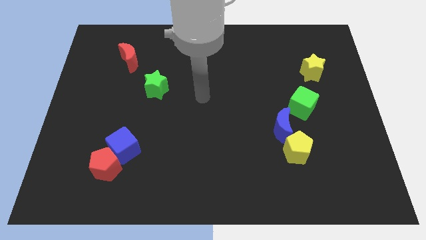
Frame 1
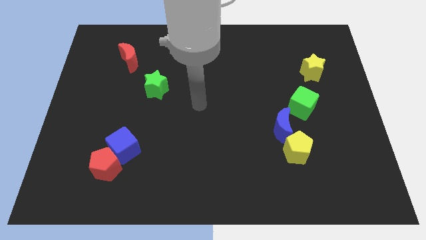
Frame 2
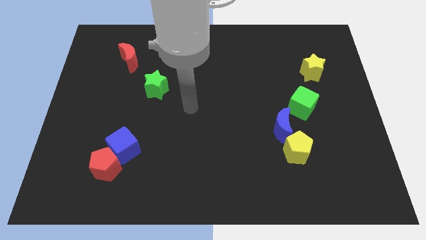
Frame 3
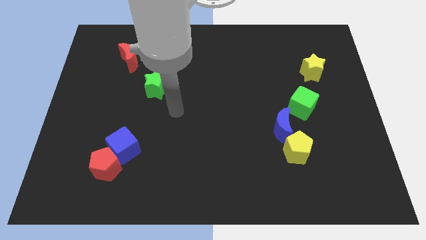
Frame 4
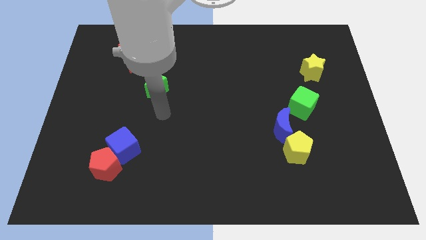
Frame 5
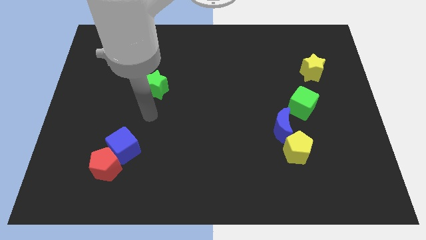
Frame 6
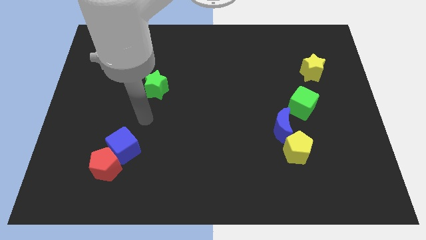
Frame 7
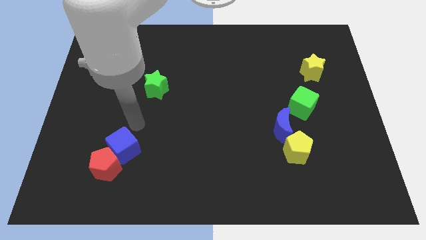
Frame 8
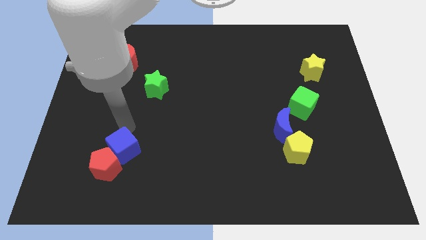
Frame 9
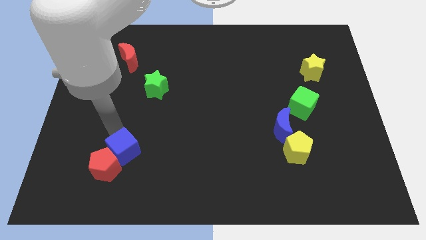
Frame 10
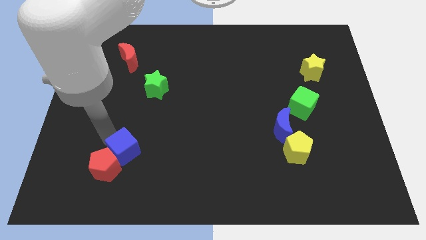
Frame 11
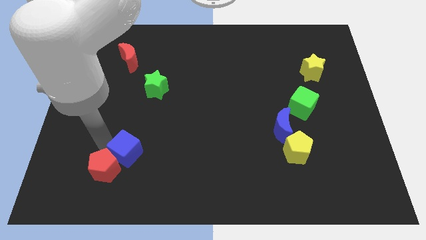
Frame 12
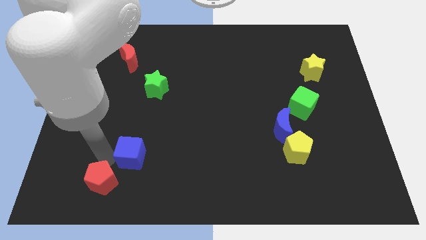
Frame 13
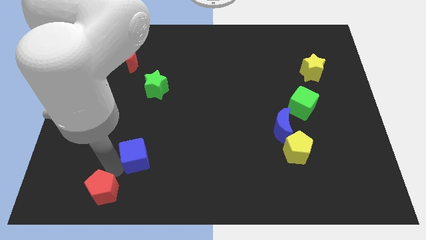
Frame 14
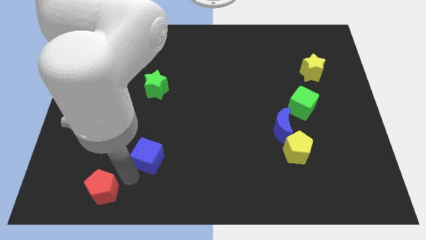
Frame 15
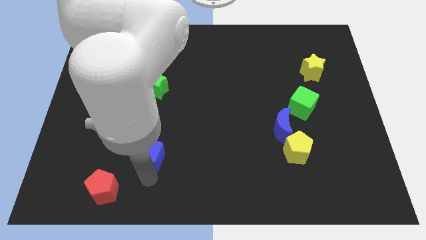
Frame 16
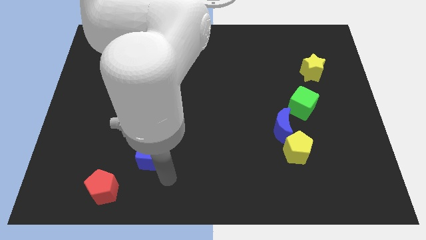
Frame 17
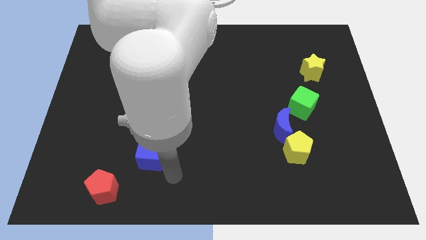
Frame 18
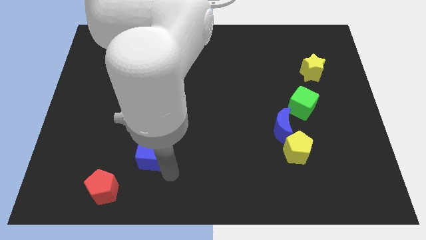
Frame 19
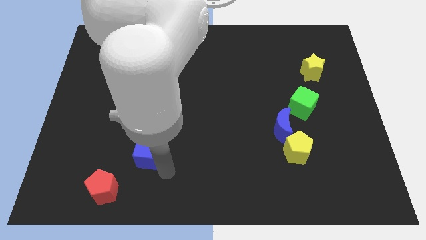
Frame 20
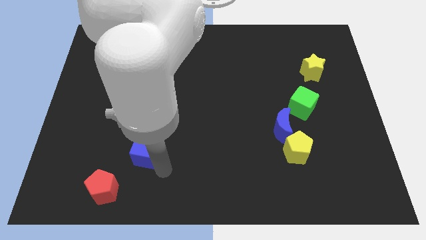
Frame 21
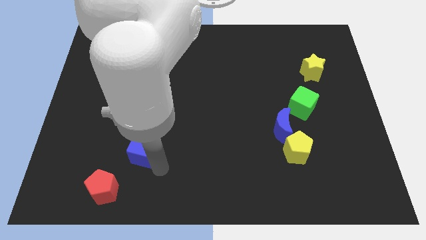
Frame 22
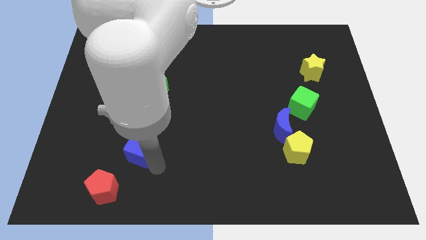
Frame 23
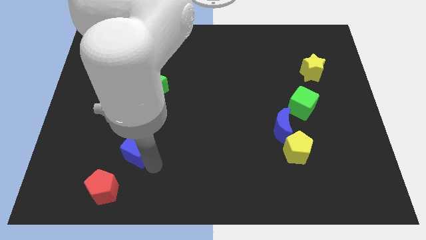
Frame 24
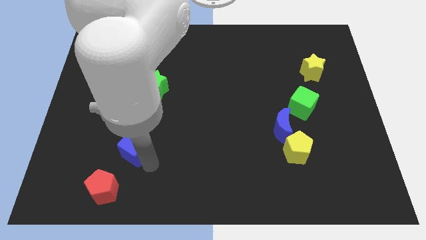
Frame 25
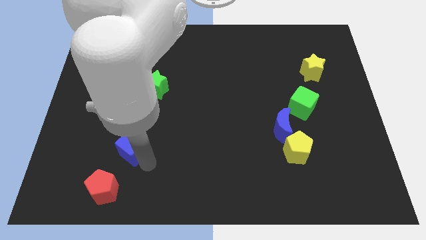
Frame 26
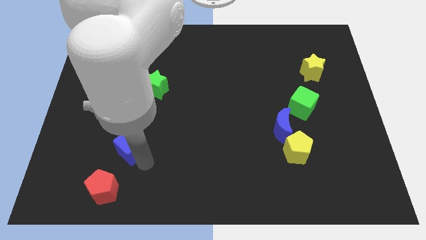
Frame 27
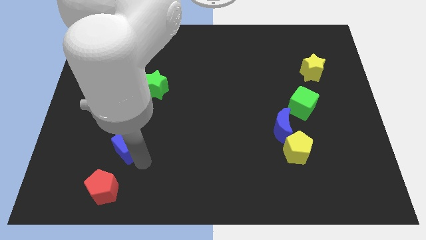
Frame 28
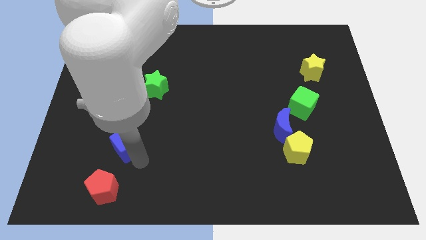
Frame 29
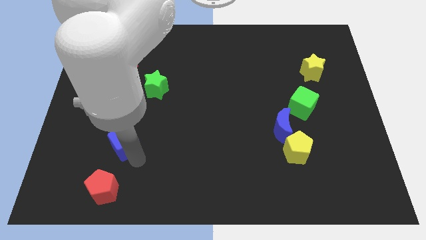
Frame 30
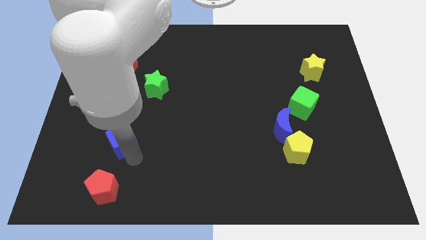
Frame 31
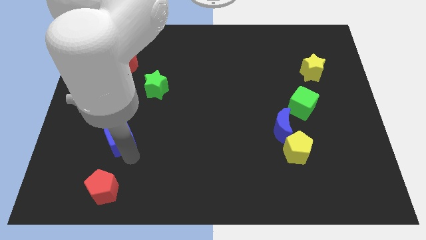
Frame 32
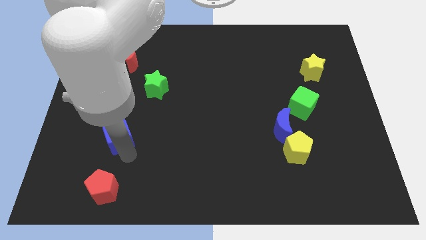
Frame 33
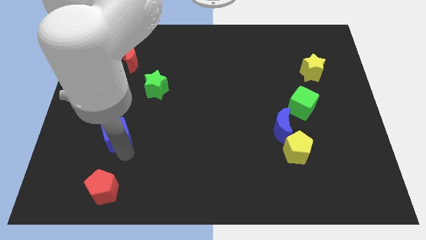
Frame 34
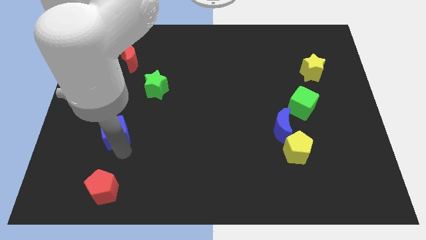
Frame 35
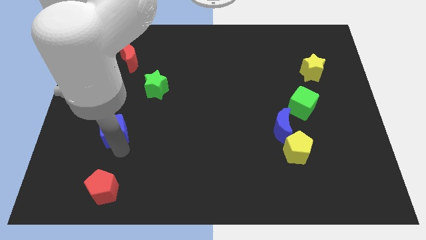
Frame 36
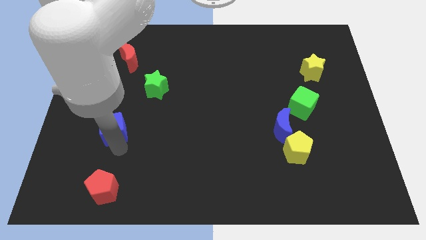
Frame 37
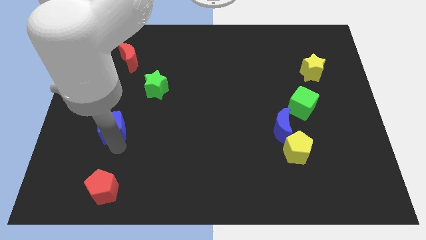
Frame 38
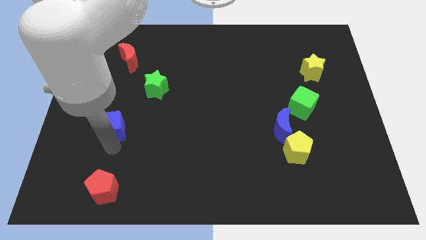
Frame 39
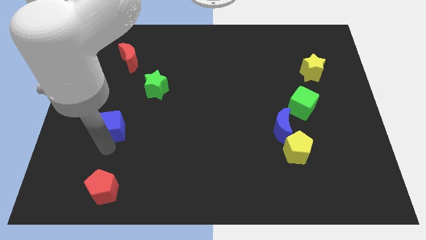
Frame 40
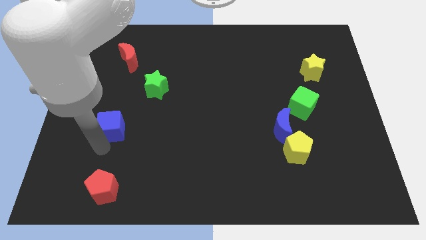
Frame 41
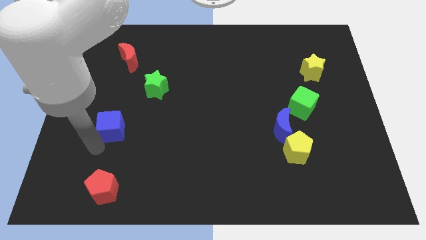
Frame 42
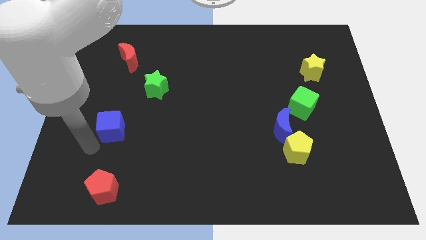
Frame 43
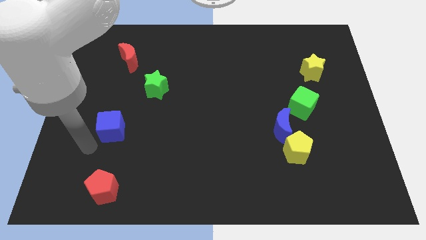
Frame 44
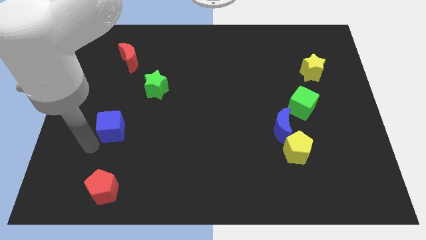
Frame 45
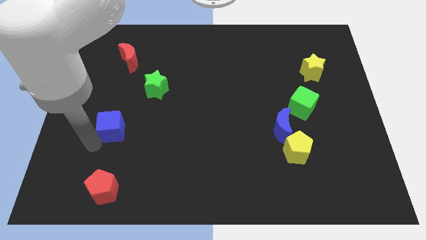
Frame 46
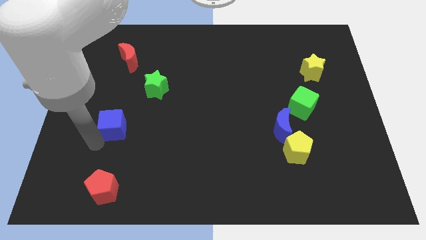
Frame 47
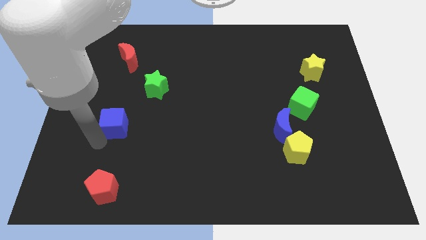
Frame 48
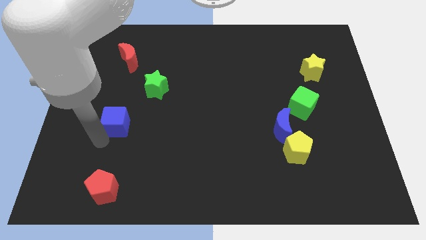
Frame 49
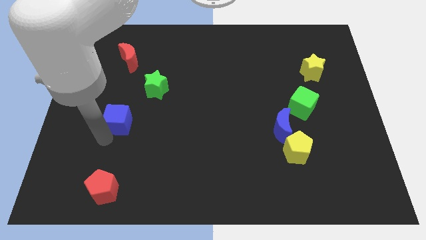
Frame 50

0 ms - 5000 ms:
push the blue cube upwards slightly

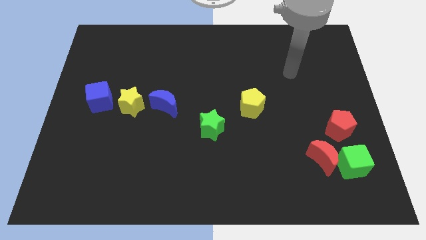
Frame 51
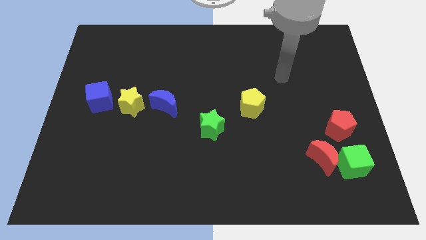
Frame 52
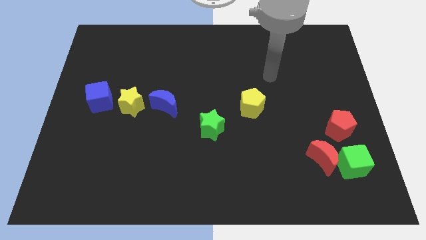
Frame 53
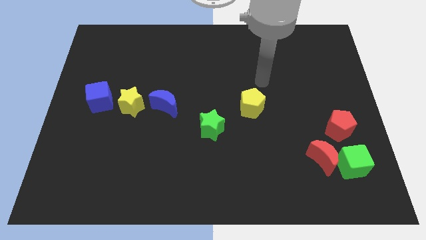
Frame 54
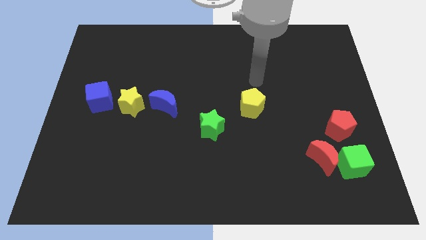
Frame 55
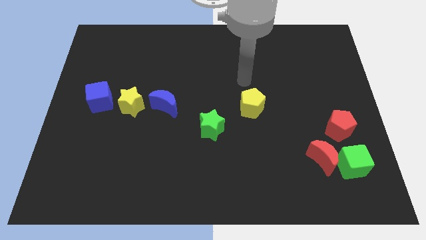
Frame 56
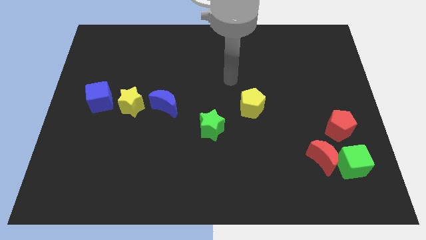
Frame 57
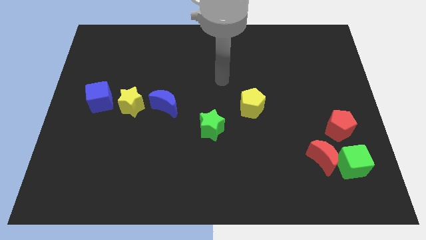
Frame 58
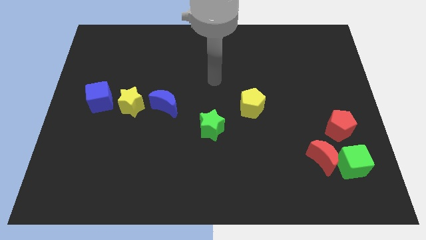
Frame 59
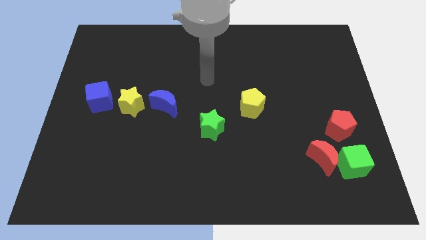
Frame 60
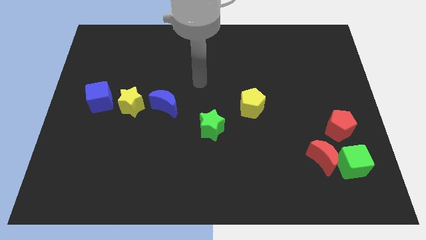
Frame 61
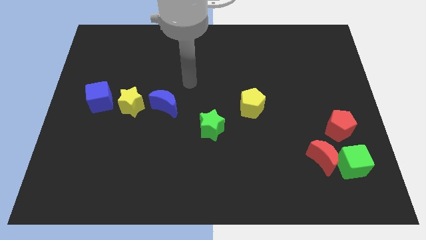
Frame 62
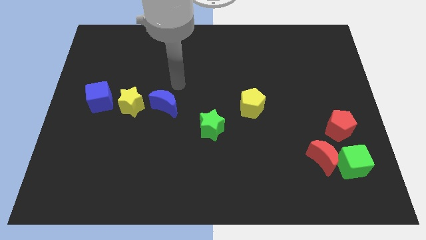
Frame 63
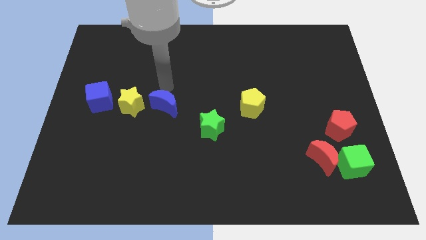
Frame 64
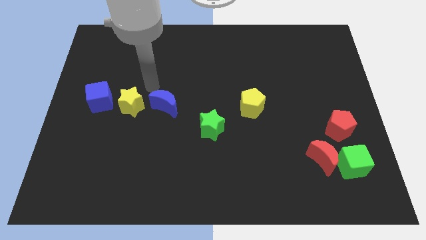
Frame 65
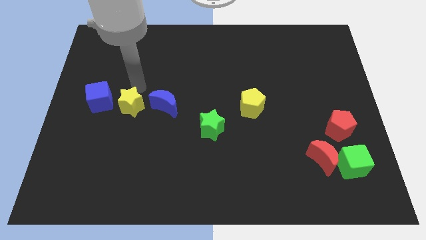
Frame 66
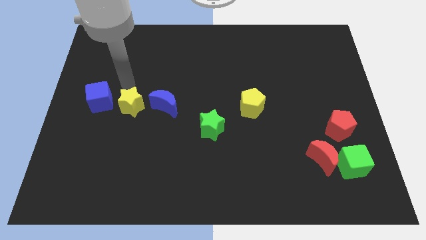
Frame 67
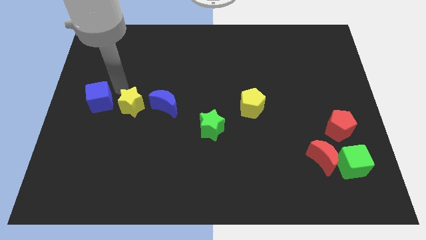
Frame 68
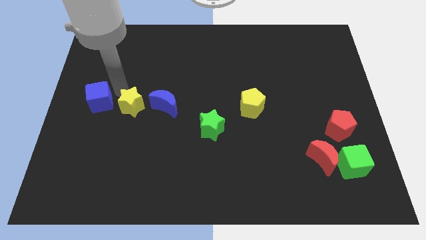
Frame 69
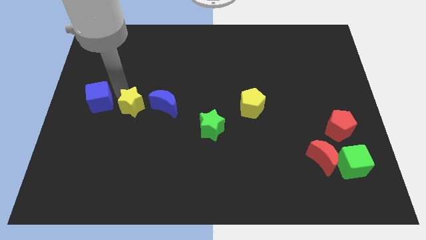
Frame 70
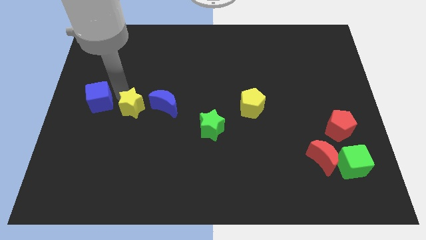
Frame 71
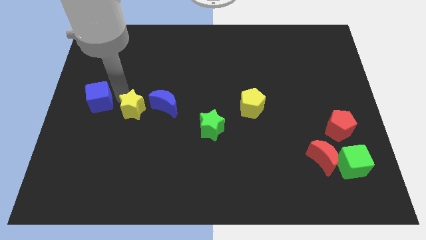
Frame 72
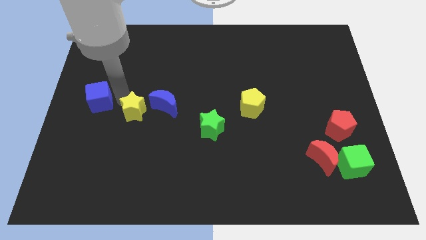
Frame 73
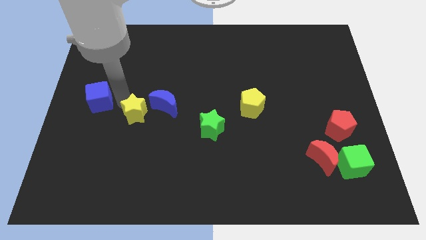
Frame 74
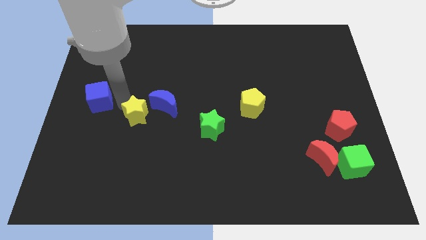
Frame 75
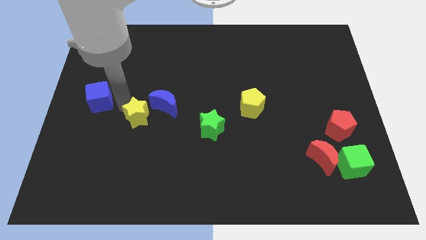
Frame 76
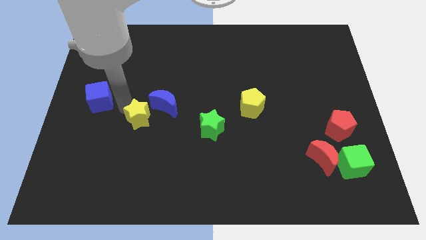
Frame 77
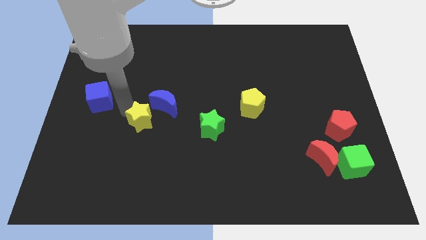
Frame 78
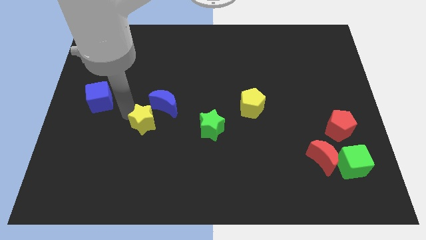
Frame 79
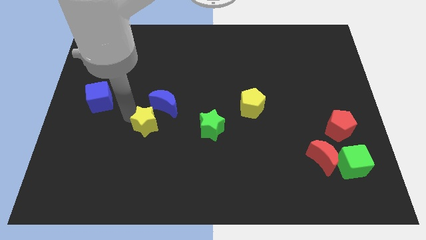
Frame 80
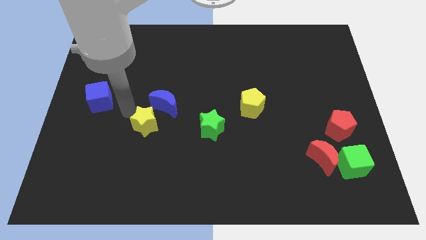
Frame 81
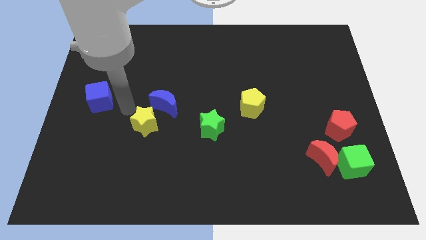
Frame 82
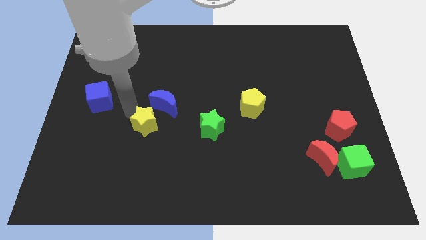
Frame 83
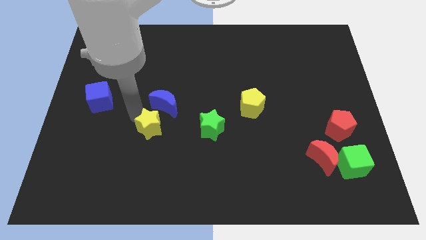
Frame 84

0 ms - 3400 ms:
push the yellow star downwards and then right a bit

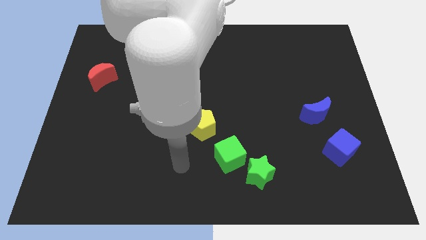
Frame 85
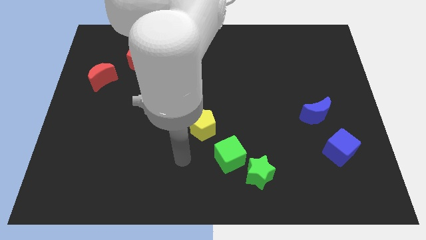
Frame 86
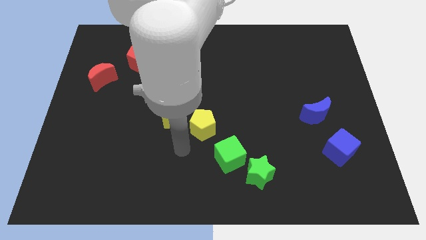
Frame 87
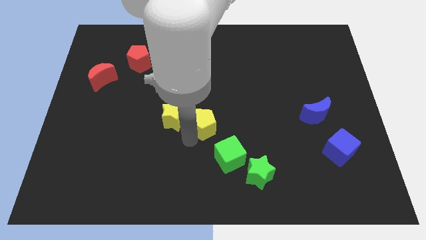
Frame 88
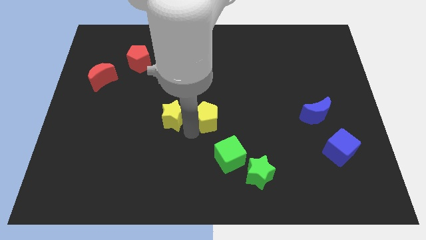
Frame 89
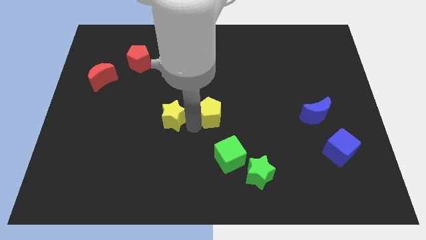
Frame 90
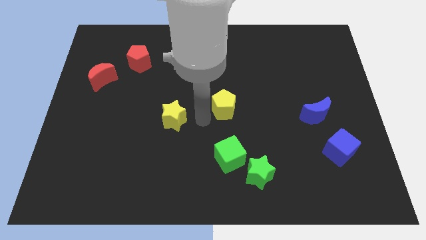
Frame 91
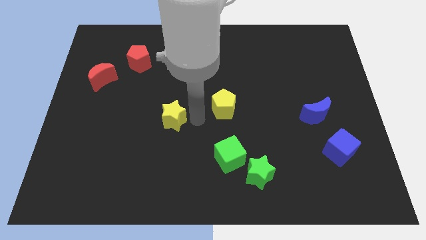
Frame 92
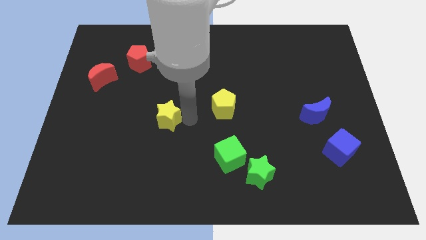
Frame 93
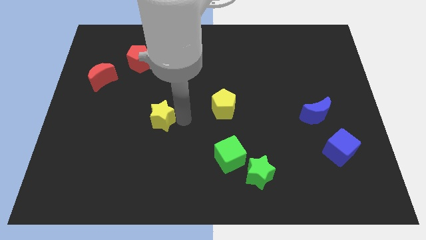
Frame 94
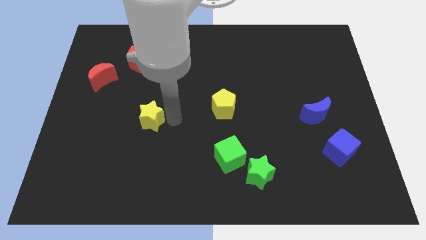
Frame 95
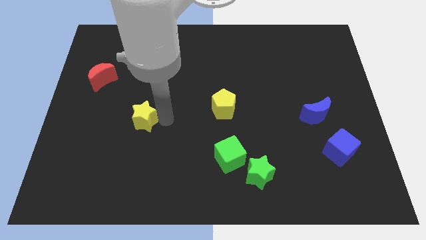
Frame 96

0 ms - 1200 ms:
slightly slide the yellow star to the left
